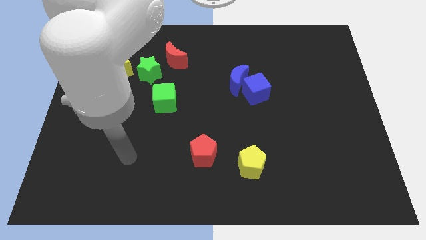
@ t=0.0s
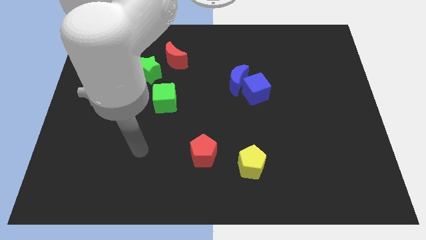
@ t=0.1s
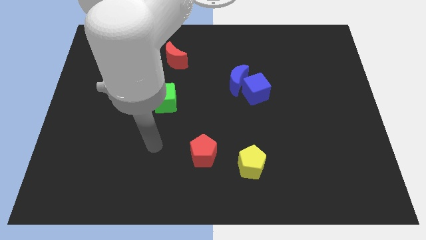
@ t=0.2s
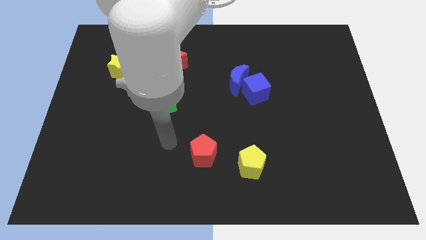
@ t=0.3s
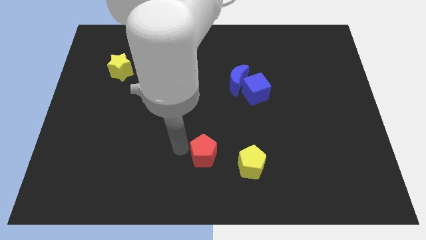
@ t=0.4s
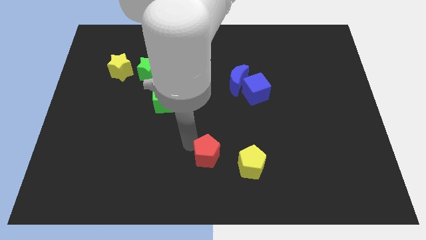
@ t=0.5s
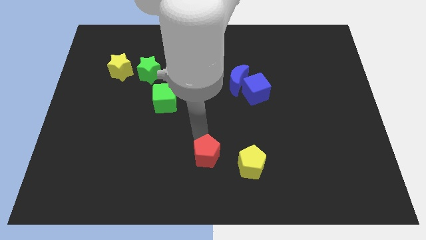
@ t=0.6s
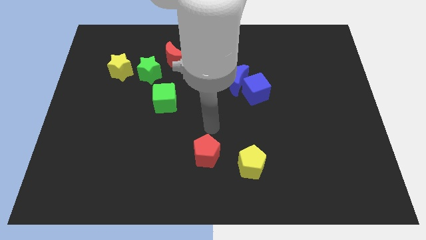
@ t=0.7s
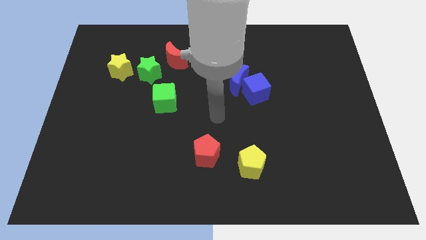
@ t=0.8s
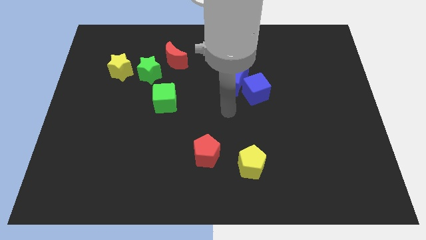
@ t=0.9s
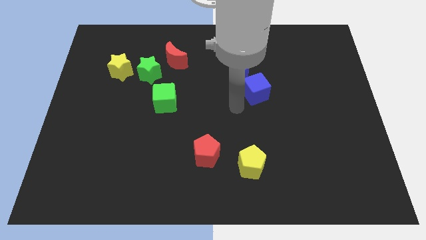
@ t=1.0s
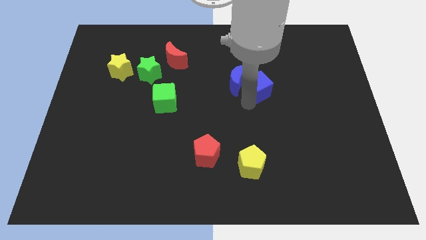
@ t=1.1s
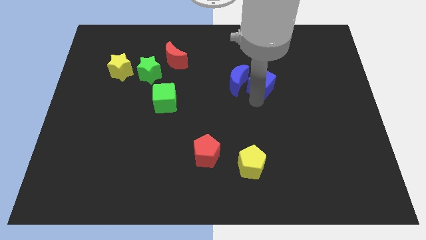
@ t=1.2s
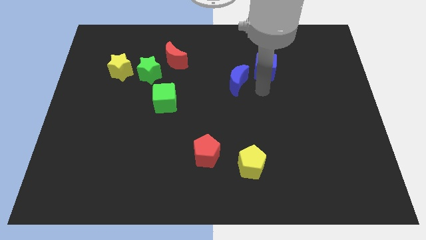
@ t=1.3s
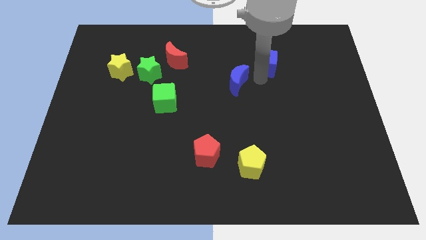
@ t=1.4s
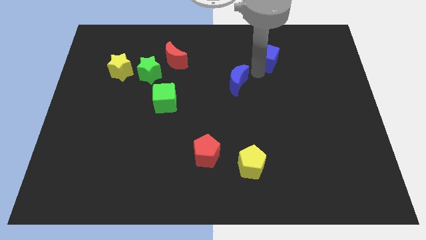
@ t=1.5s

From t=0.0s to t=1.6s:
separate the blue moon from the blue cube

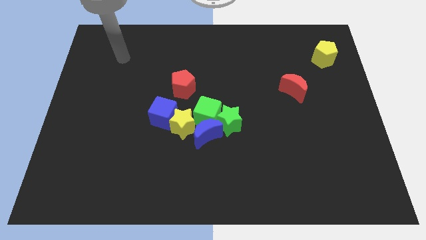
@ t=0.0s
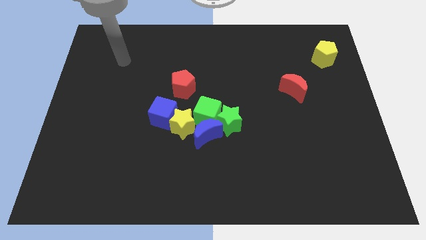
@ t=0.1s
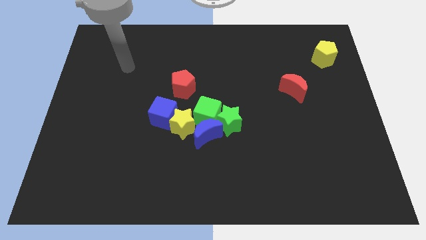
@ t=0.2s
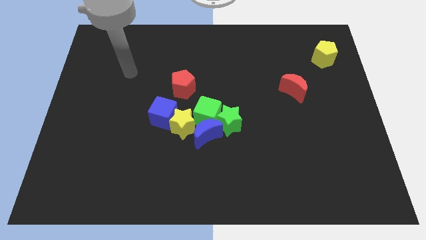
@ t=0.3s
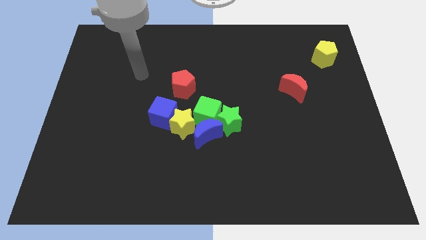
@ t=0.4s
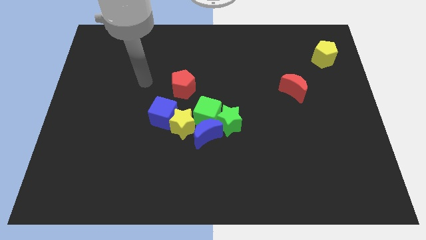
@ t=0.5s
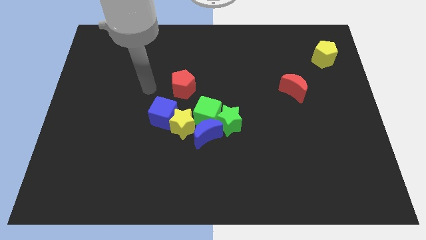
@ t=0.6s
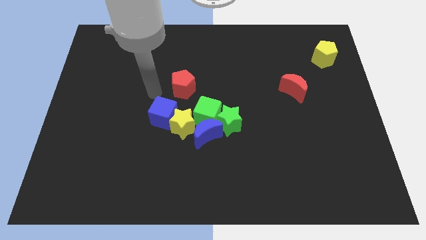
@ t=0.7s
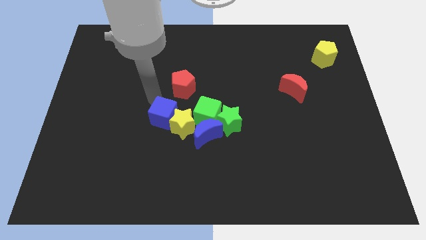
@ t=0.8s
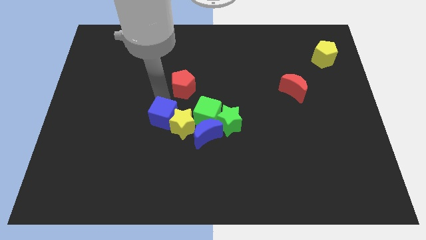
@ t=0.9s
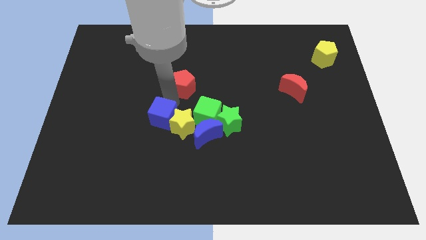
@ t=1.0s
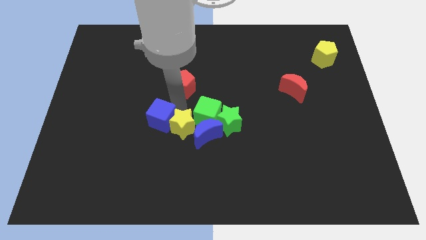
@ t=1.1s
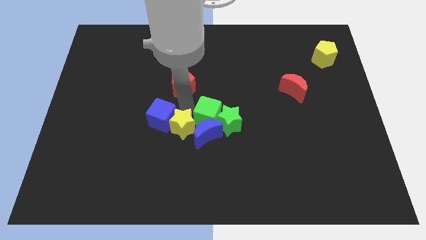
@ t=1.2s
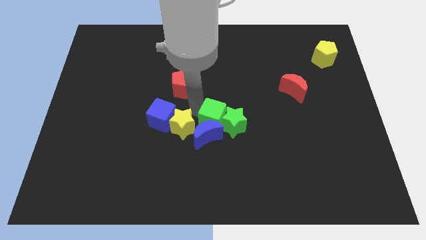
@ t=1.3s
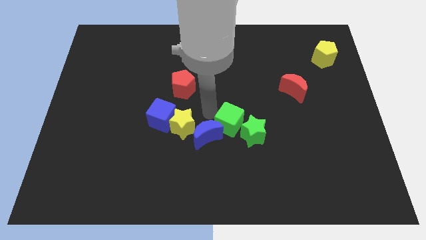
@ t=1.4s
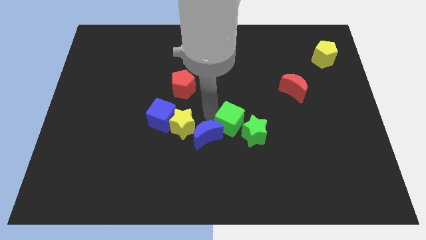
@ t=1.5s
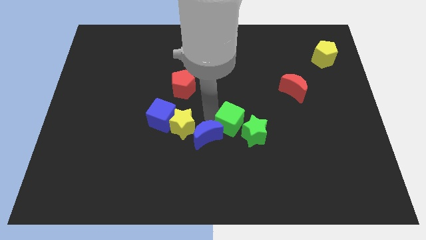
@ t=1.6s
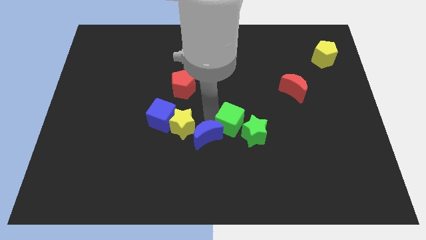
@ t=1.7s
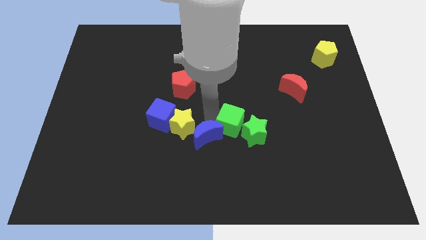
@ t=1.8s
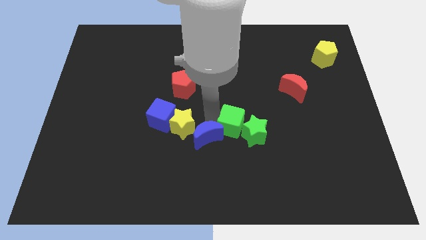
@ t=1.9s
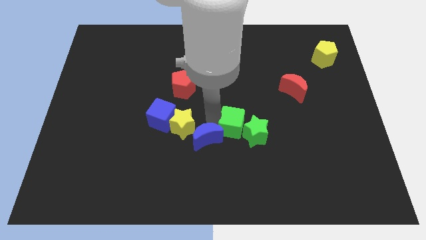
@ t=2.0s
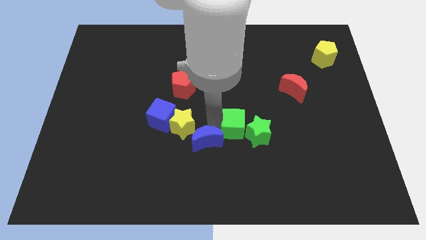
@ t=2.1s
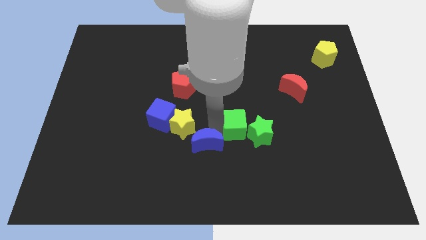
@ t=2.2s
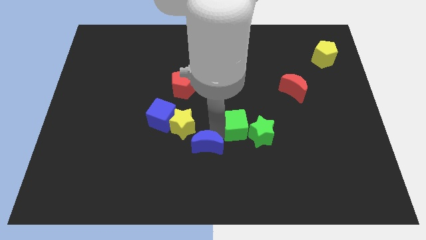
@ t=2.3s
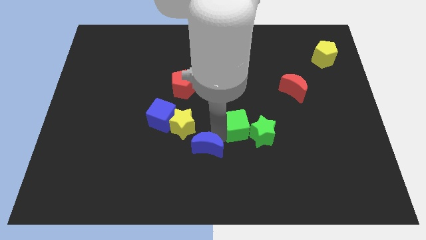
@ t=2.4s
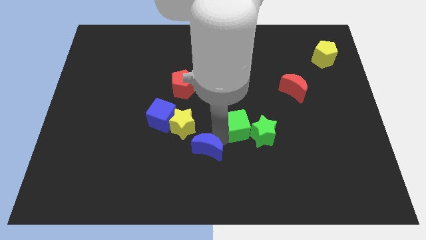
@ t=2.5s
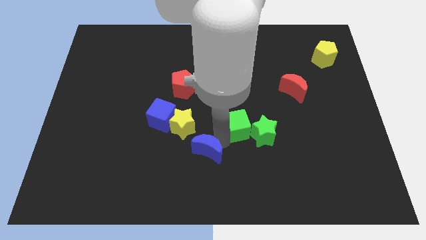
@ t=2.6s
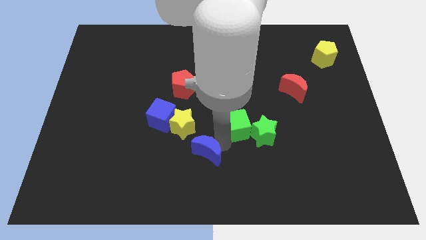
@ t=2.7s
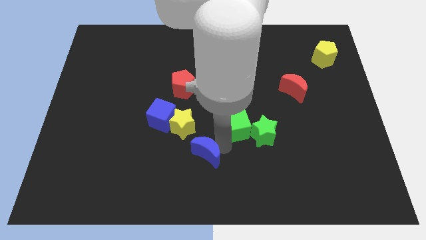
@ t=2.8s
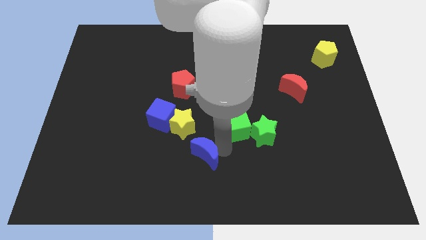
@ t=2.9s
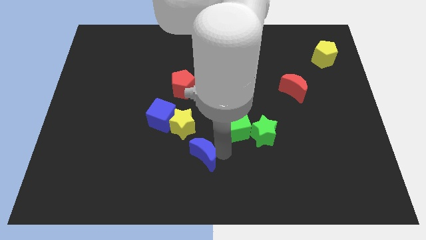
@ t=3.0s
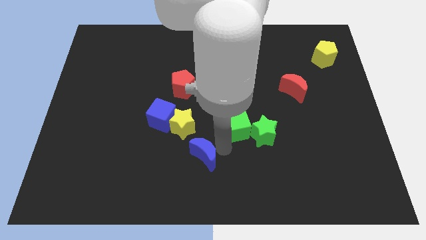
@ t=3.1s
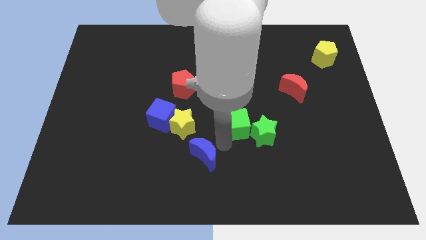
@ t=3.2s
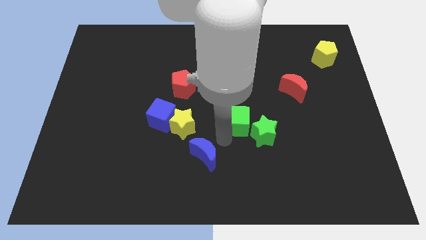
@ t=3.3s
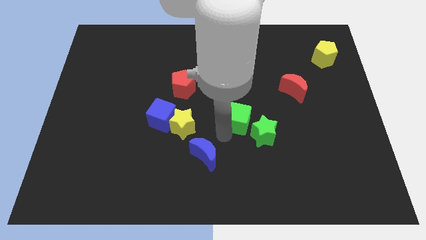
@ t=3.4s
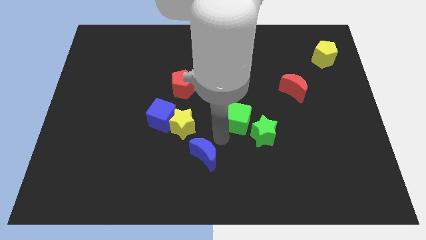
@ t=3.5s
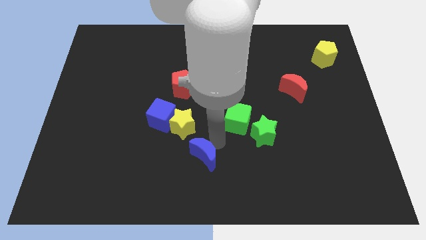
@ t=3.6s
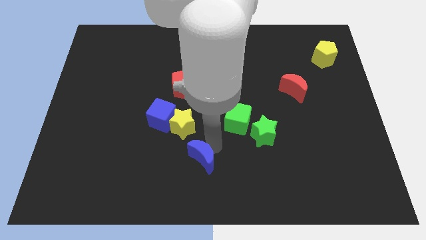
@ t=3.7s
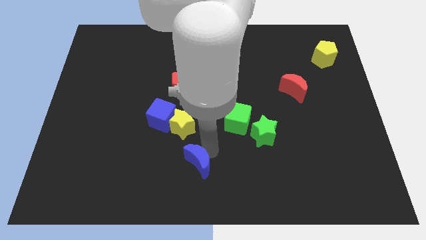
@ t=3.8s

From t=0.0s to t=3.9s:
pull the blue moon apart from the group

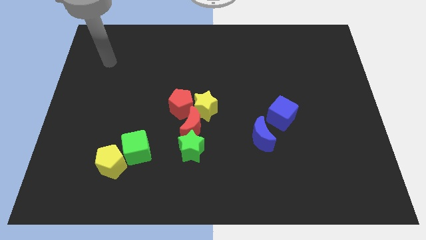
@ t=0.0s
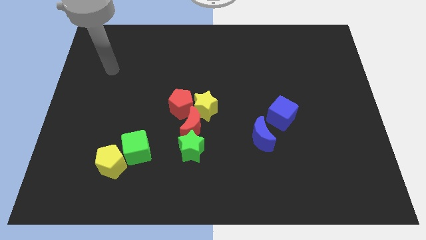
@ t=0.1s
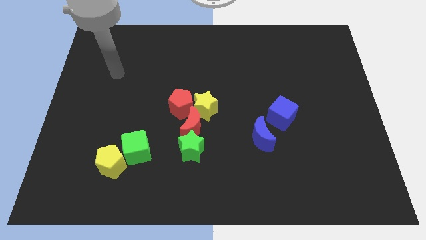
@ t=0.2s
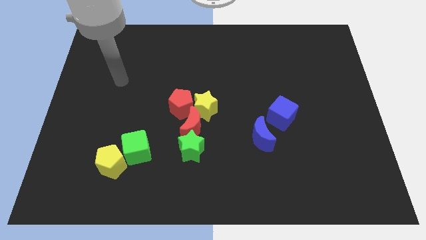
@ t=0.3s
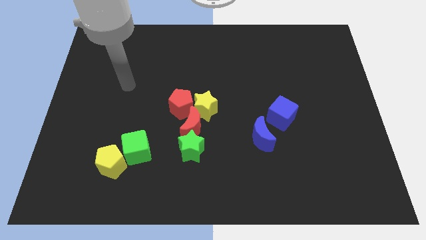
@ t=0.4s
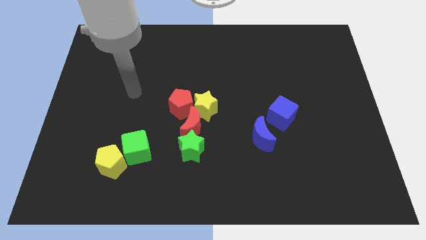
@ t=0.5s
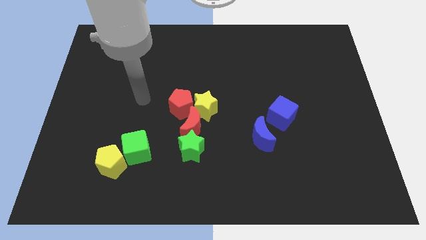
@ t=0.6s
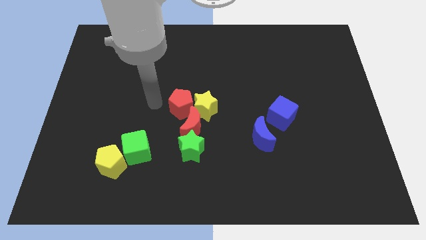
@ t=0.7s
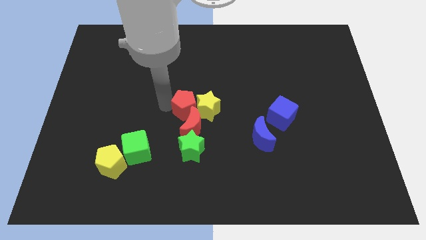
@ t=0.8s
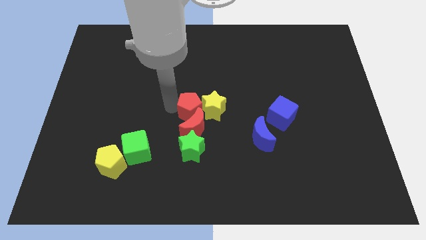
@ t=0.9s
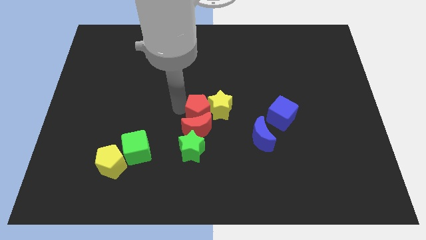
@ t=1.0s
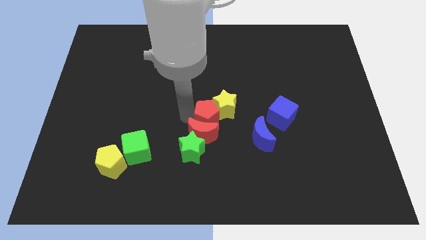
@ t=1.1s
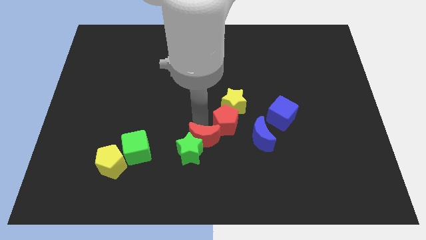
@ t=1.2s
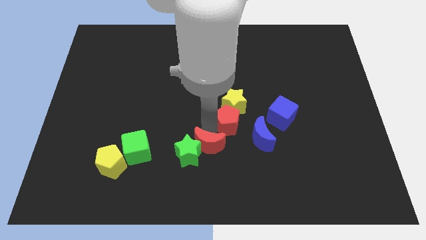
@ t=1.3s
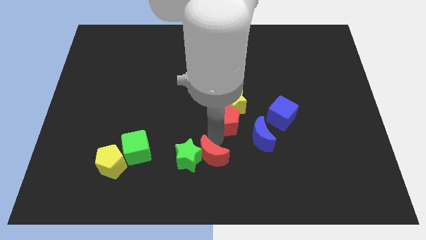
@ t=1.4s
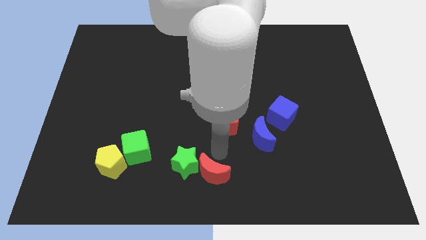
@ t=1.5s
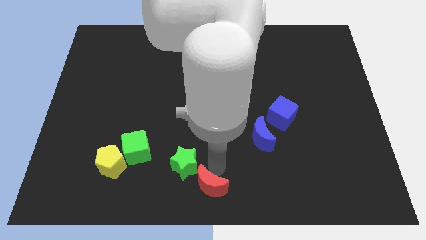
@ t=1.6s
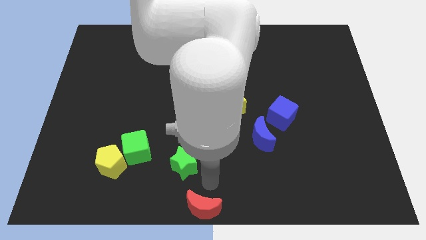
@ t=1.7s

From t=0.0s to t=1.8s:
move the green star away from the red moon

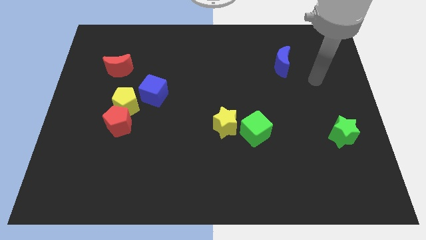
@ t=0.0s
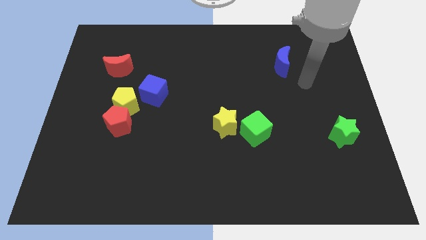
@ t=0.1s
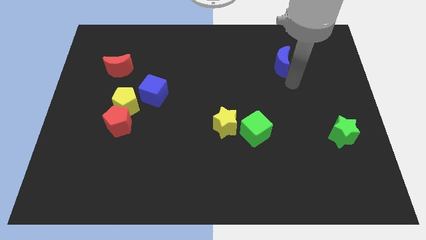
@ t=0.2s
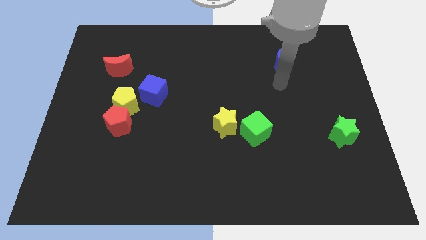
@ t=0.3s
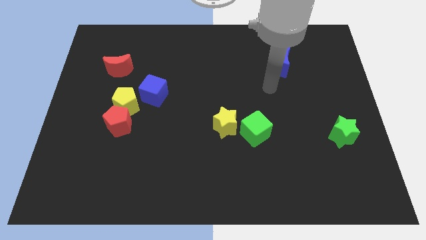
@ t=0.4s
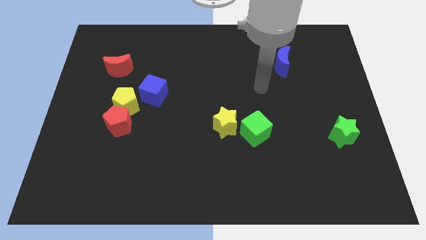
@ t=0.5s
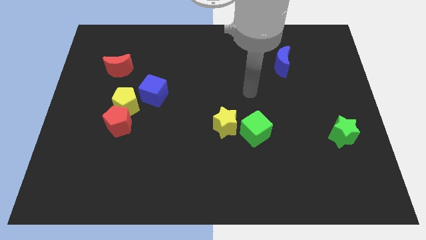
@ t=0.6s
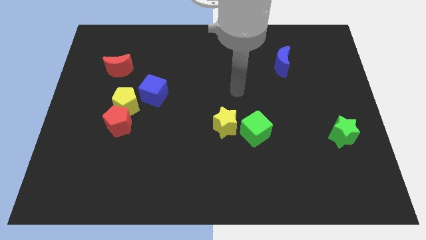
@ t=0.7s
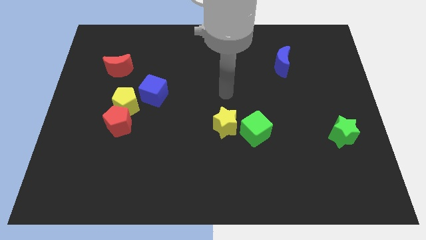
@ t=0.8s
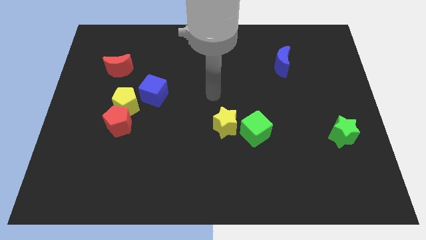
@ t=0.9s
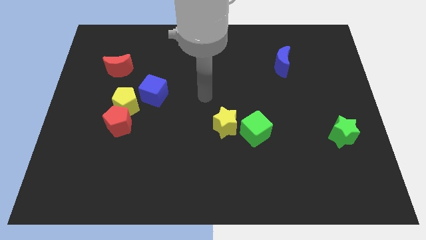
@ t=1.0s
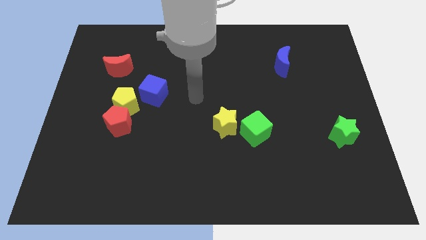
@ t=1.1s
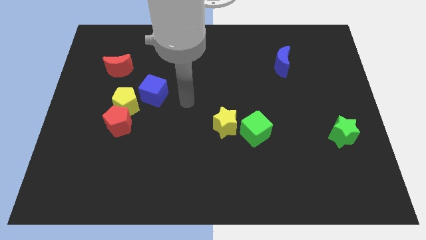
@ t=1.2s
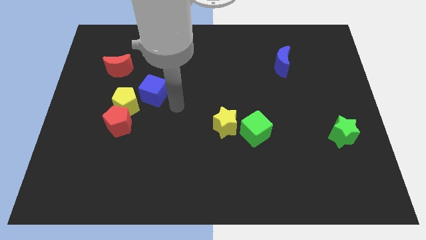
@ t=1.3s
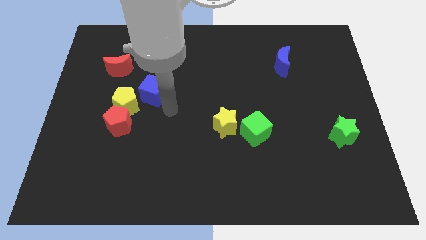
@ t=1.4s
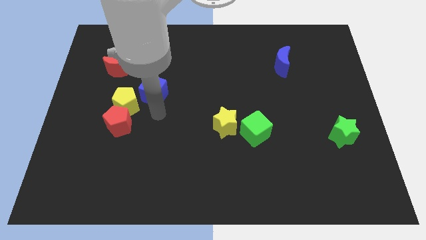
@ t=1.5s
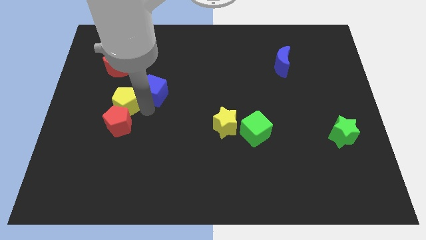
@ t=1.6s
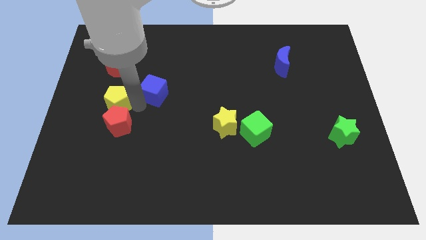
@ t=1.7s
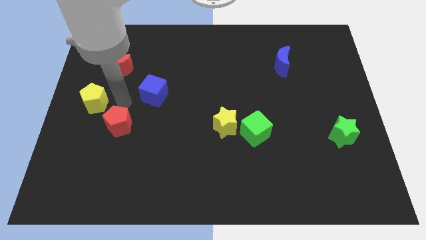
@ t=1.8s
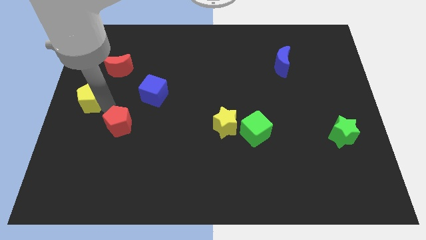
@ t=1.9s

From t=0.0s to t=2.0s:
separate the red pentagon from the yellow pentagon
